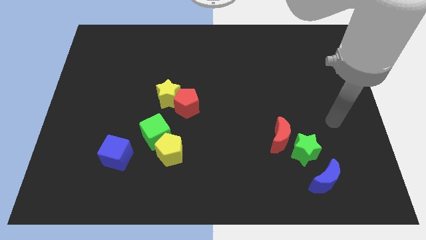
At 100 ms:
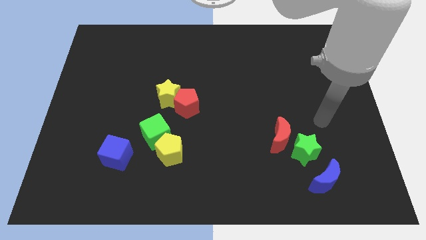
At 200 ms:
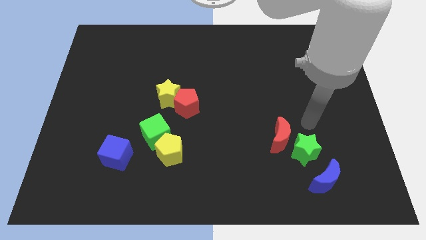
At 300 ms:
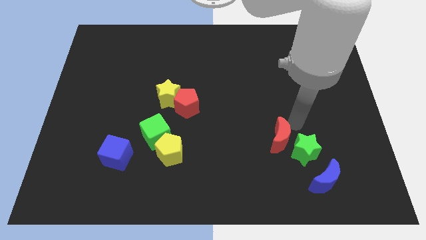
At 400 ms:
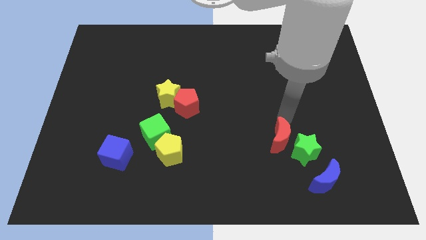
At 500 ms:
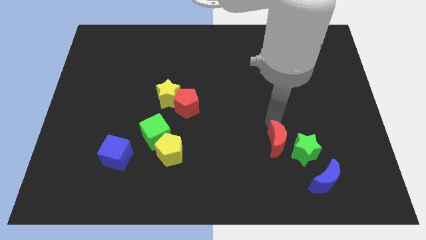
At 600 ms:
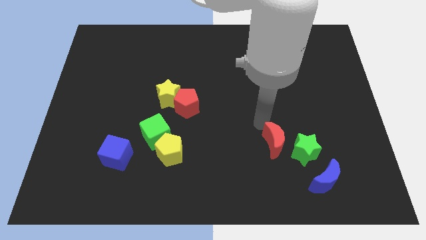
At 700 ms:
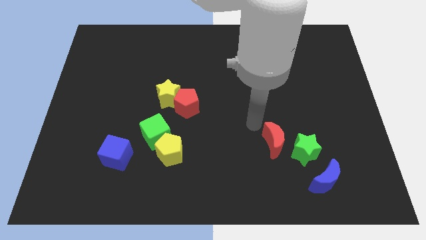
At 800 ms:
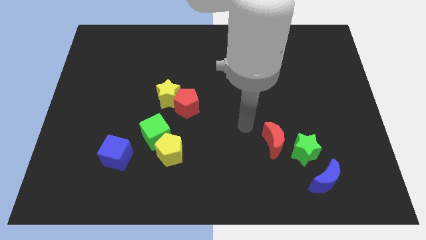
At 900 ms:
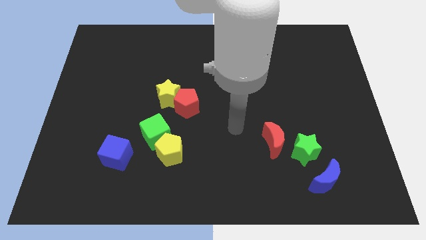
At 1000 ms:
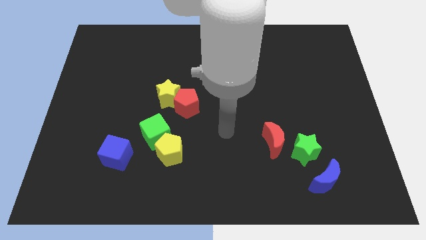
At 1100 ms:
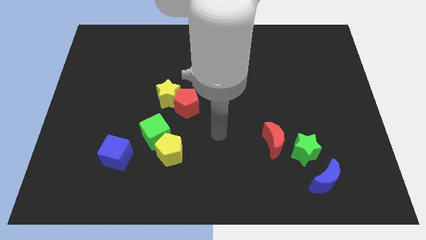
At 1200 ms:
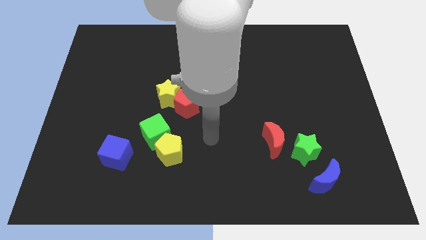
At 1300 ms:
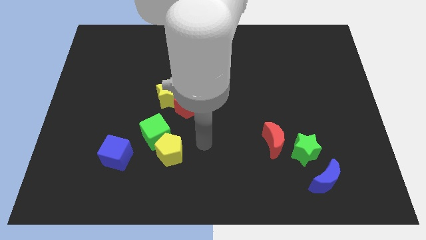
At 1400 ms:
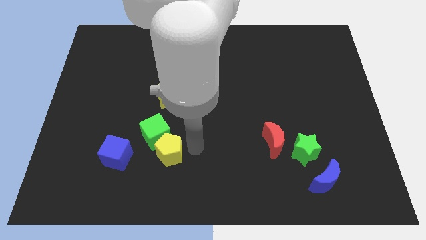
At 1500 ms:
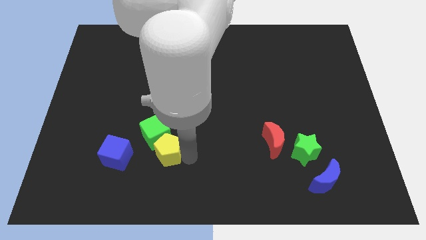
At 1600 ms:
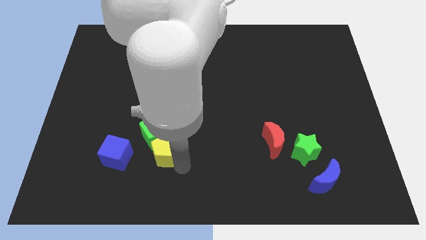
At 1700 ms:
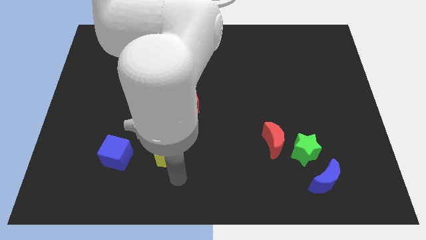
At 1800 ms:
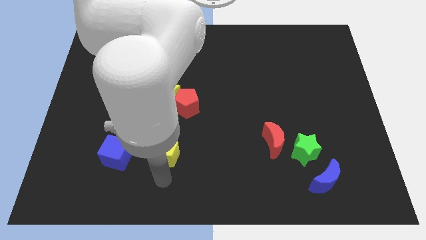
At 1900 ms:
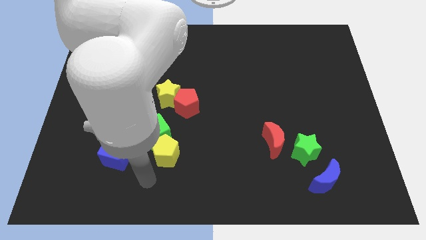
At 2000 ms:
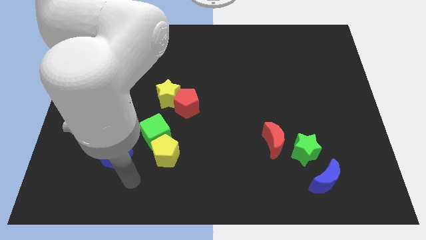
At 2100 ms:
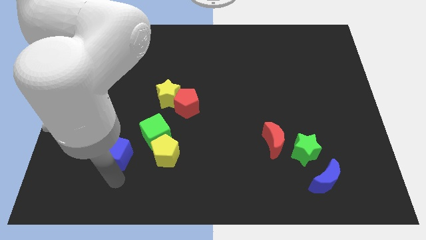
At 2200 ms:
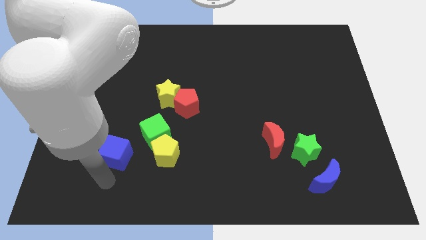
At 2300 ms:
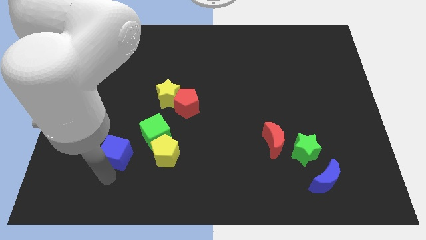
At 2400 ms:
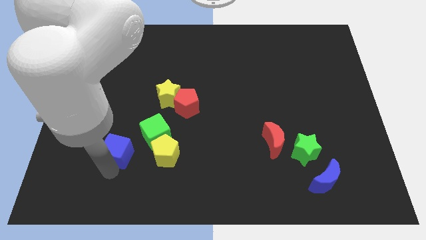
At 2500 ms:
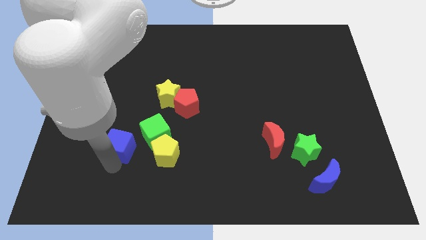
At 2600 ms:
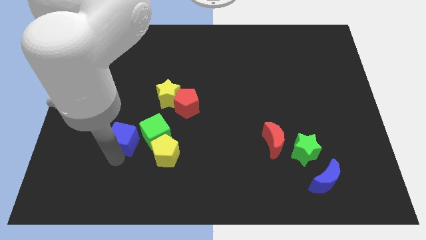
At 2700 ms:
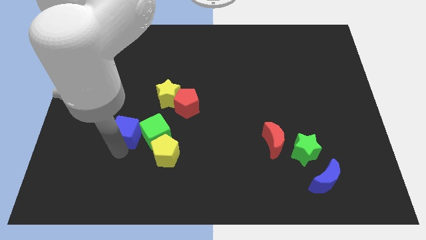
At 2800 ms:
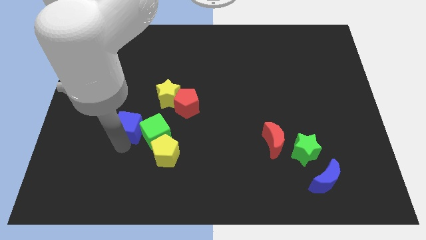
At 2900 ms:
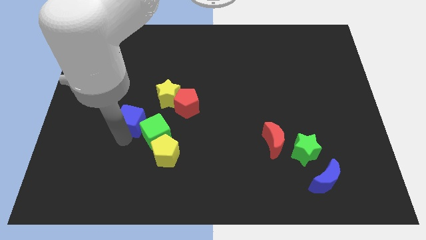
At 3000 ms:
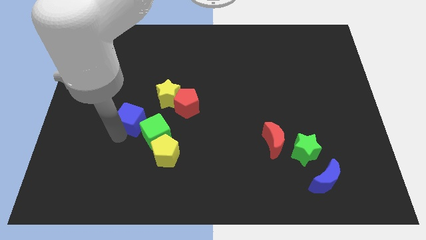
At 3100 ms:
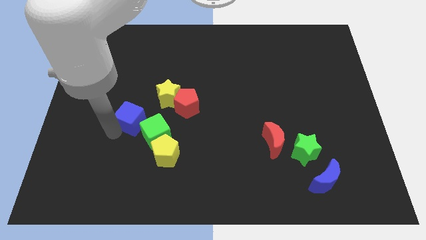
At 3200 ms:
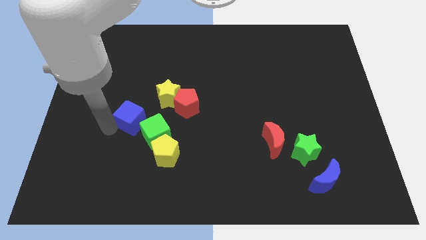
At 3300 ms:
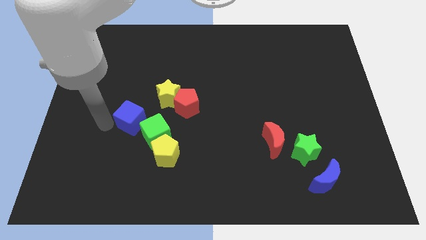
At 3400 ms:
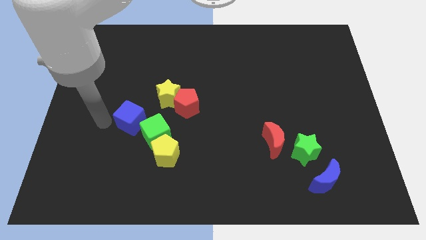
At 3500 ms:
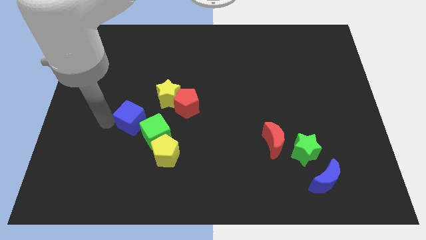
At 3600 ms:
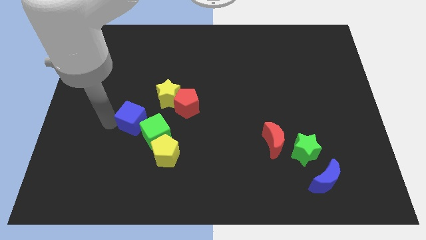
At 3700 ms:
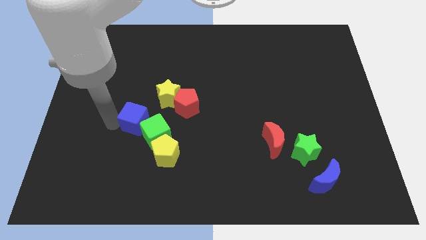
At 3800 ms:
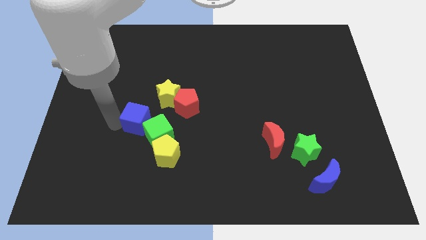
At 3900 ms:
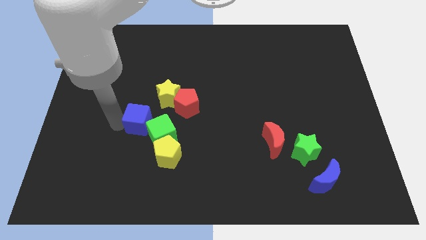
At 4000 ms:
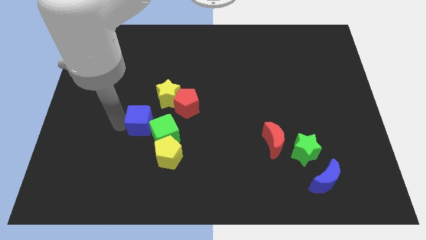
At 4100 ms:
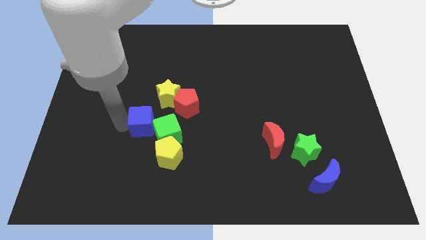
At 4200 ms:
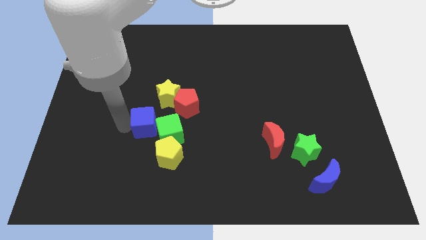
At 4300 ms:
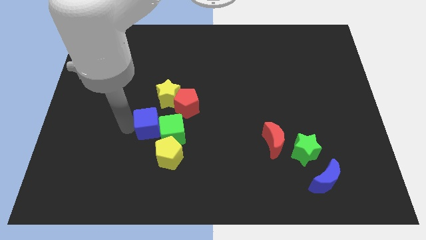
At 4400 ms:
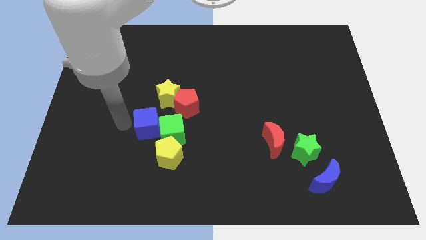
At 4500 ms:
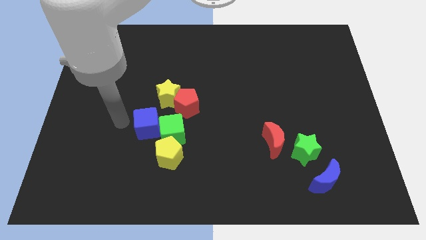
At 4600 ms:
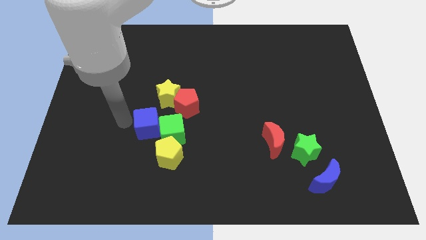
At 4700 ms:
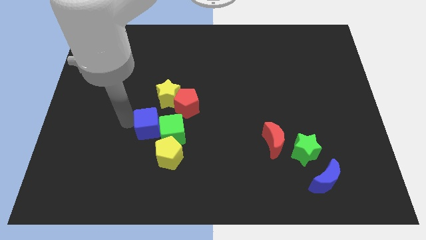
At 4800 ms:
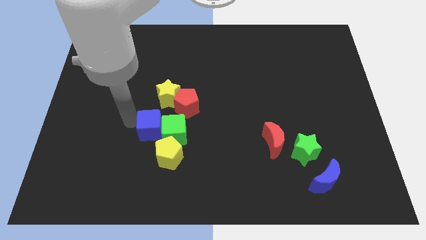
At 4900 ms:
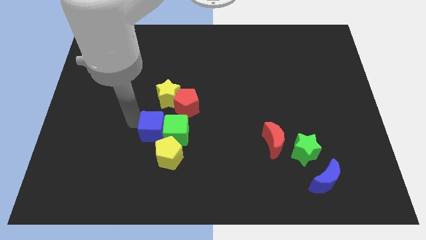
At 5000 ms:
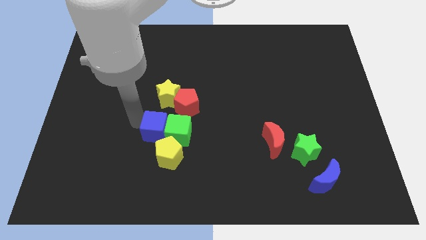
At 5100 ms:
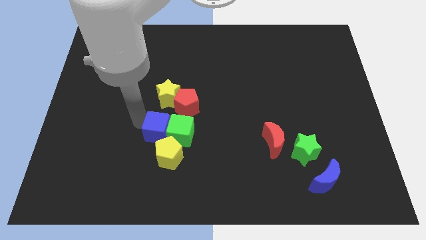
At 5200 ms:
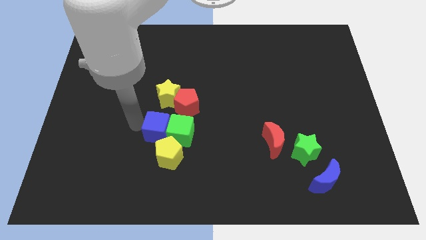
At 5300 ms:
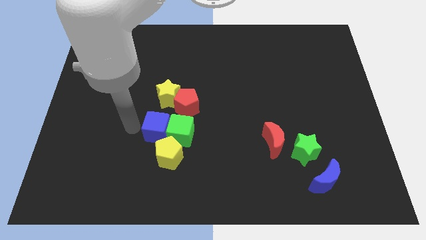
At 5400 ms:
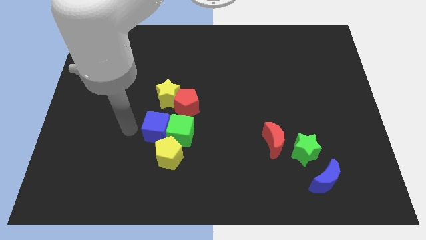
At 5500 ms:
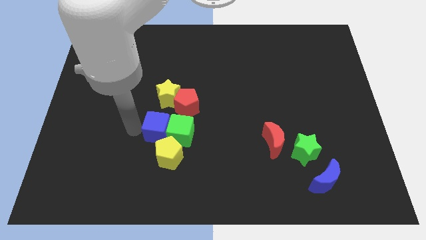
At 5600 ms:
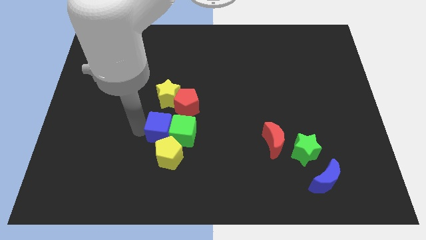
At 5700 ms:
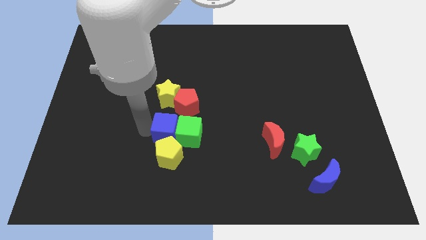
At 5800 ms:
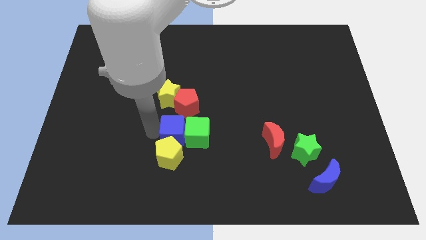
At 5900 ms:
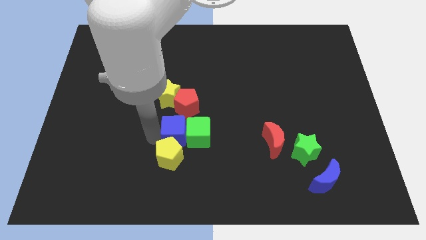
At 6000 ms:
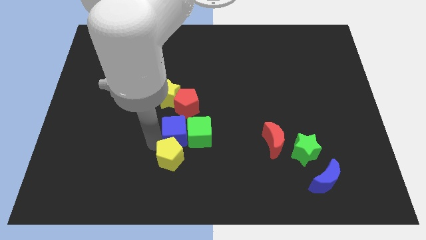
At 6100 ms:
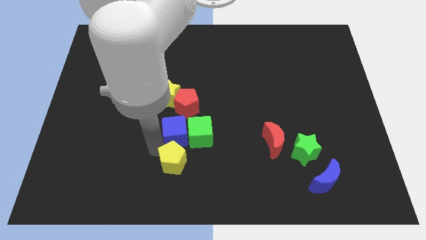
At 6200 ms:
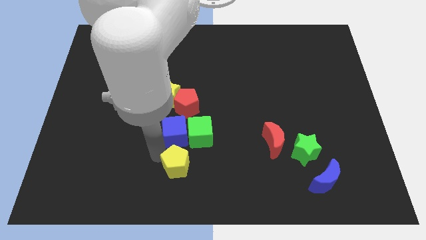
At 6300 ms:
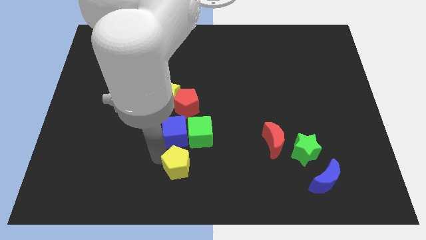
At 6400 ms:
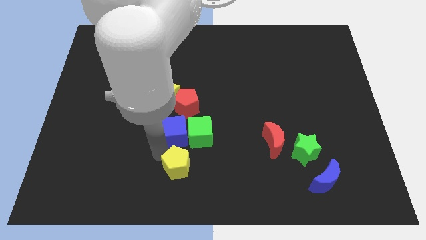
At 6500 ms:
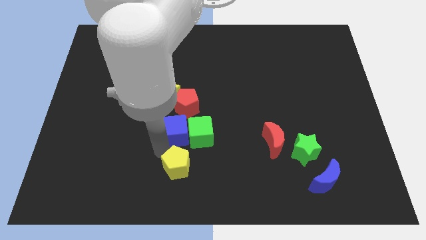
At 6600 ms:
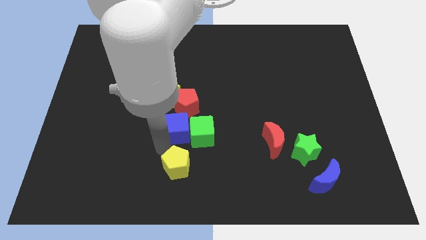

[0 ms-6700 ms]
push the blue cube diagonally down and to the right of the yellow star

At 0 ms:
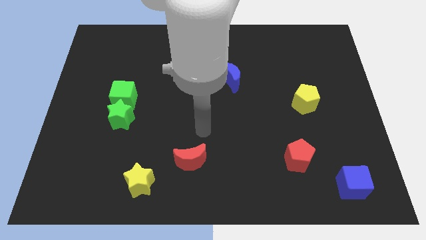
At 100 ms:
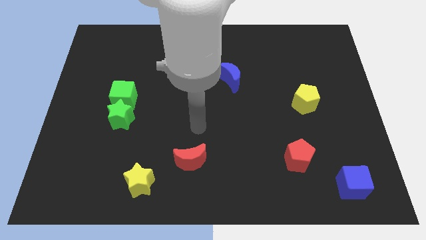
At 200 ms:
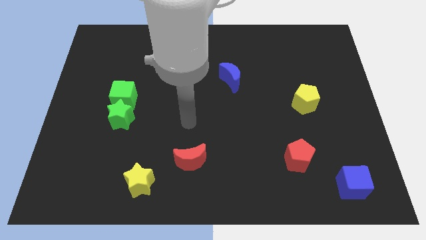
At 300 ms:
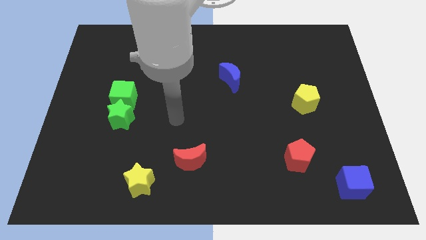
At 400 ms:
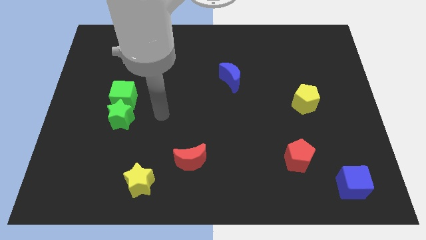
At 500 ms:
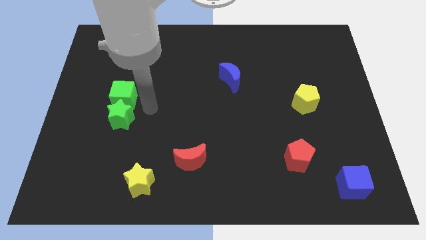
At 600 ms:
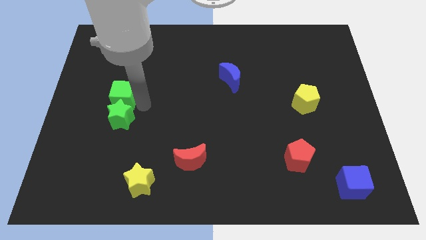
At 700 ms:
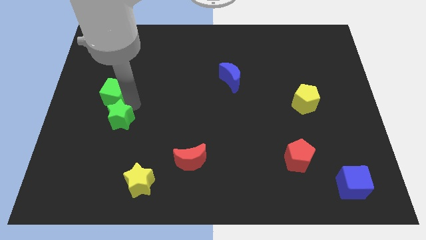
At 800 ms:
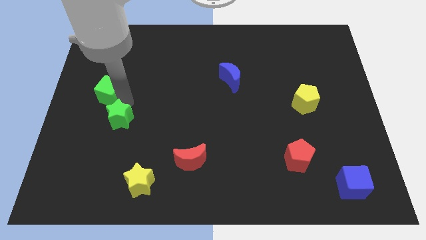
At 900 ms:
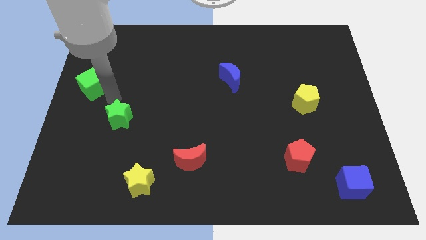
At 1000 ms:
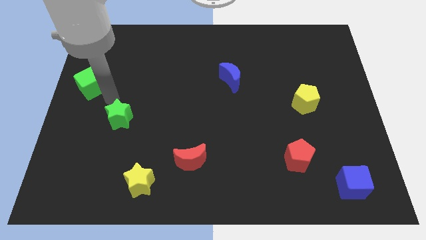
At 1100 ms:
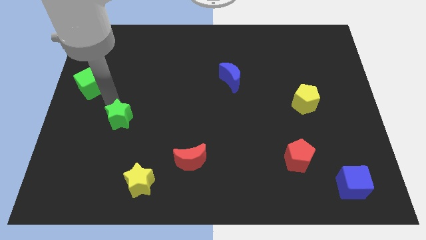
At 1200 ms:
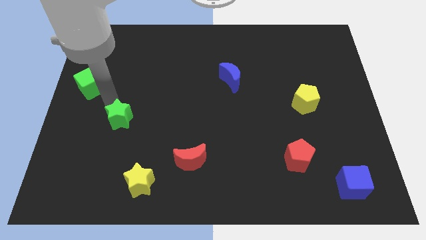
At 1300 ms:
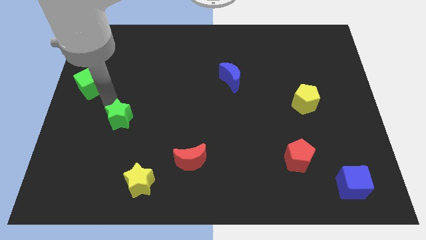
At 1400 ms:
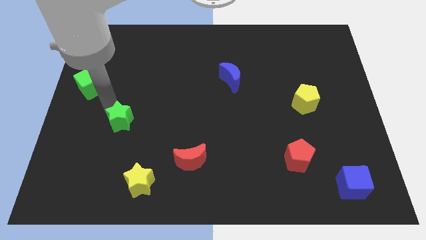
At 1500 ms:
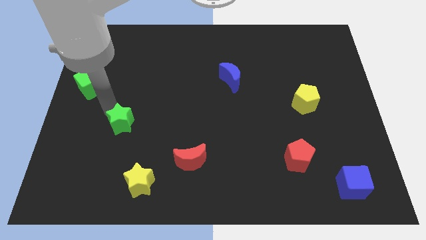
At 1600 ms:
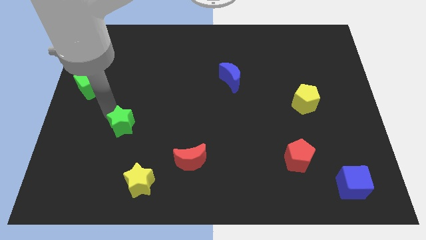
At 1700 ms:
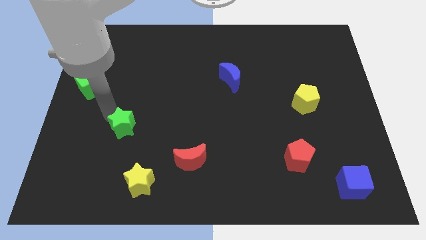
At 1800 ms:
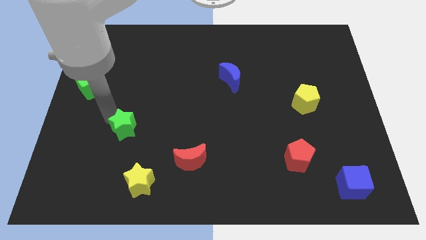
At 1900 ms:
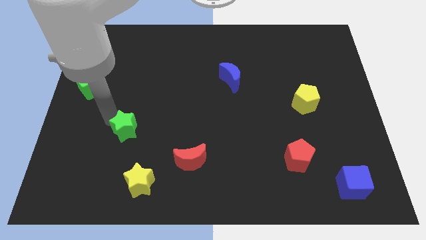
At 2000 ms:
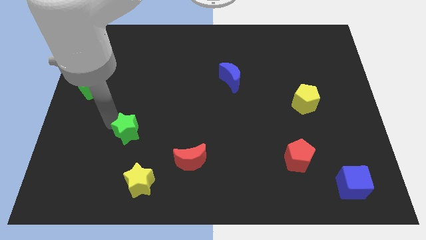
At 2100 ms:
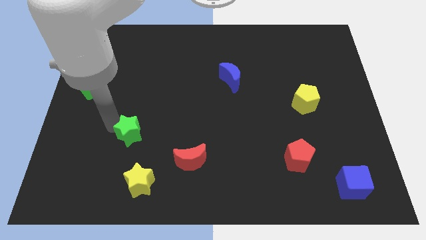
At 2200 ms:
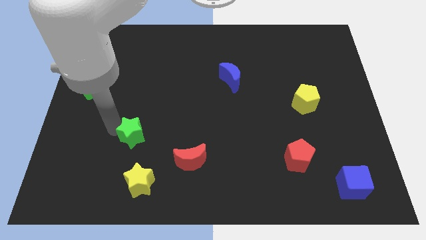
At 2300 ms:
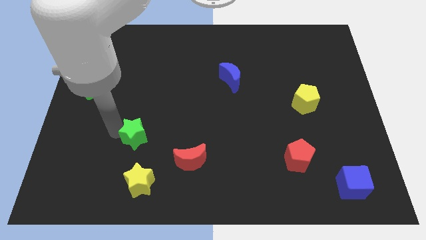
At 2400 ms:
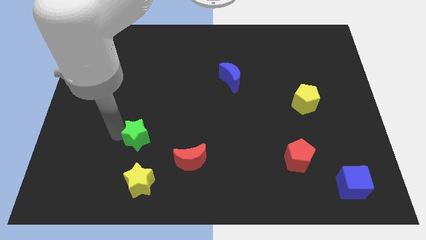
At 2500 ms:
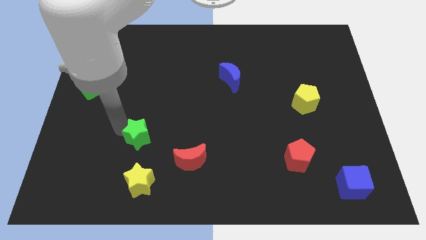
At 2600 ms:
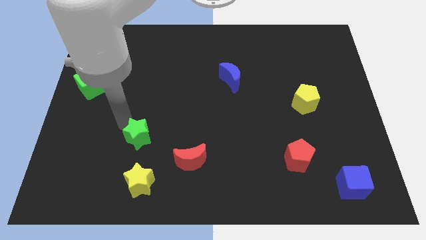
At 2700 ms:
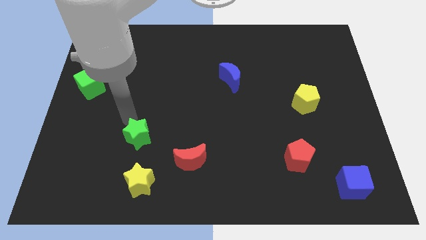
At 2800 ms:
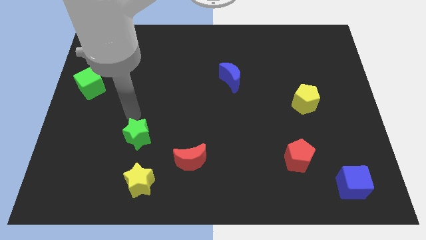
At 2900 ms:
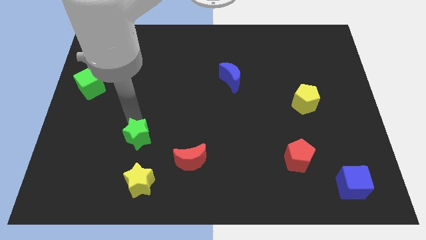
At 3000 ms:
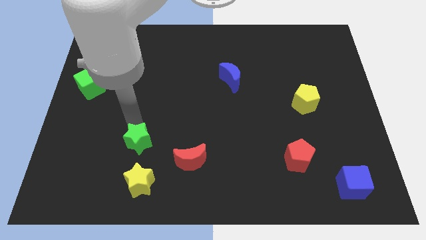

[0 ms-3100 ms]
move the green star just left of the red moon
